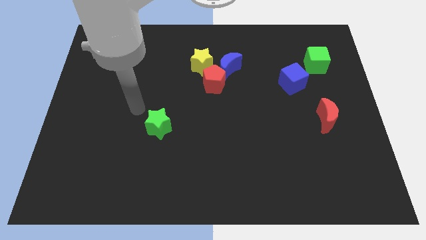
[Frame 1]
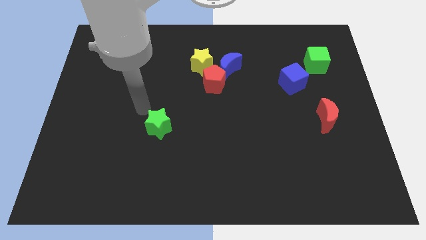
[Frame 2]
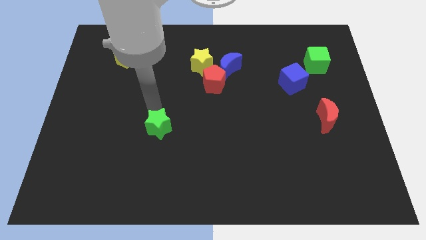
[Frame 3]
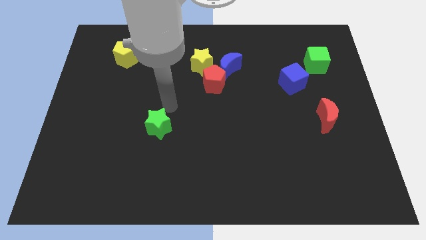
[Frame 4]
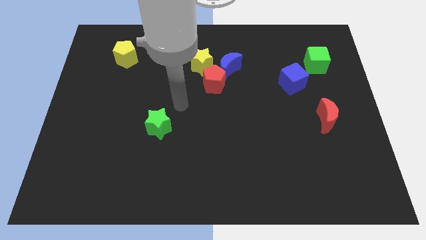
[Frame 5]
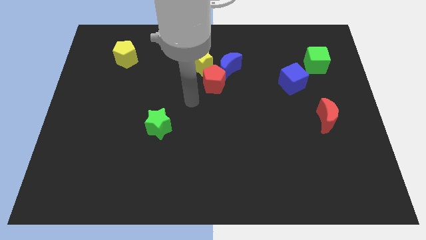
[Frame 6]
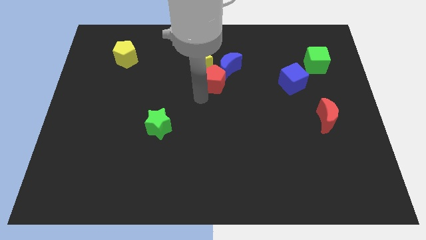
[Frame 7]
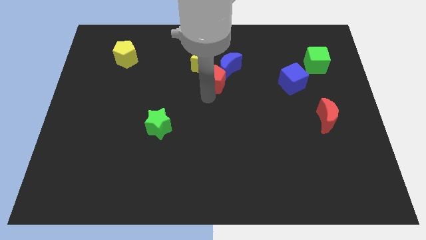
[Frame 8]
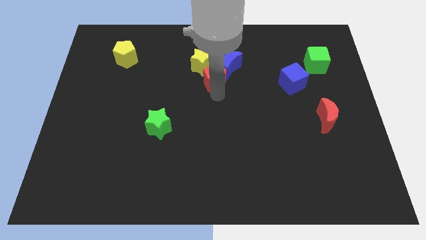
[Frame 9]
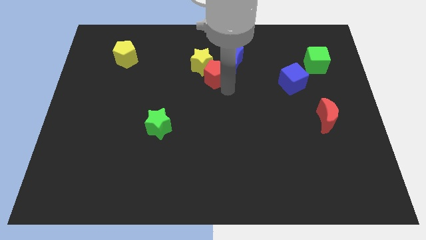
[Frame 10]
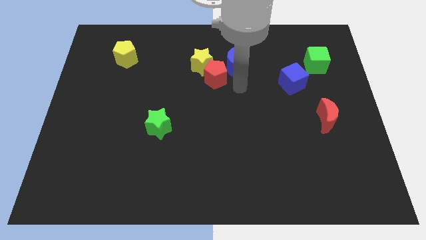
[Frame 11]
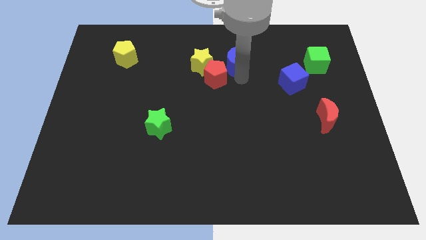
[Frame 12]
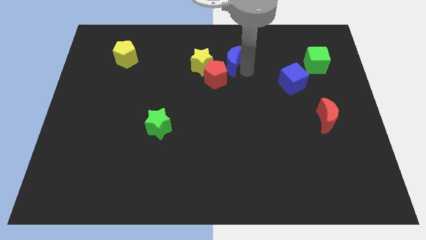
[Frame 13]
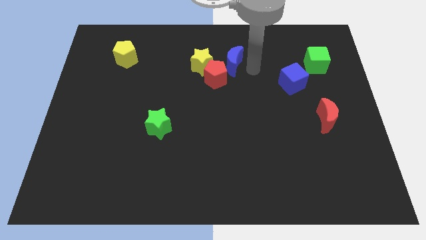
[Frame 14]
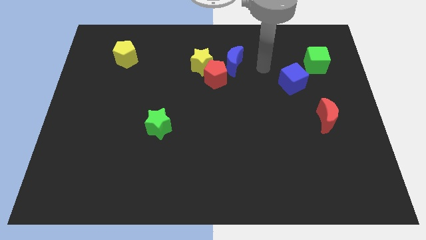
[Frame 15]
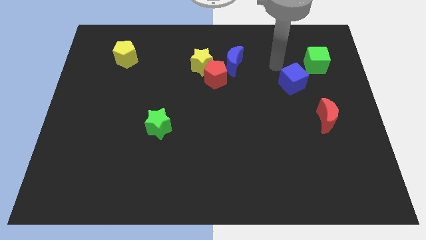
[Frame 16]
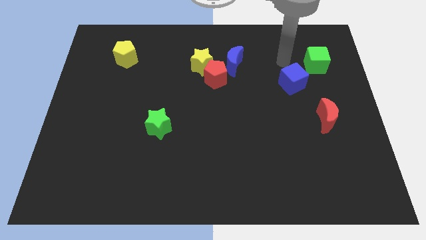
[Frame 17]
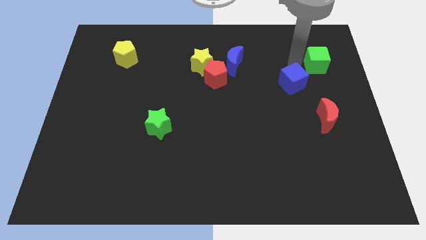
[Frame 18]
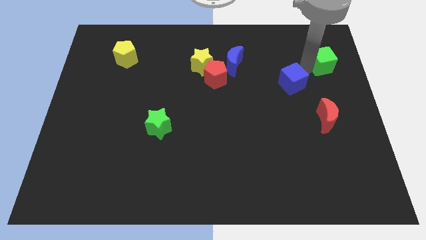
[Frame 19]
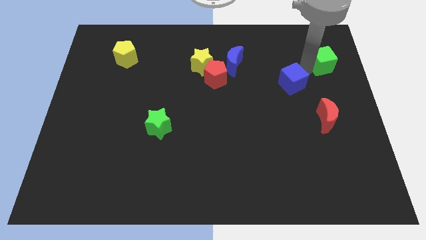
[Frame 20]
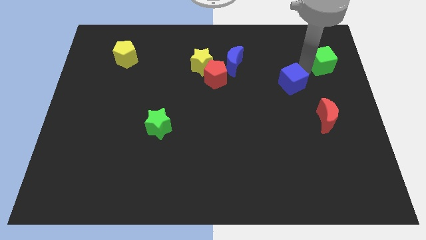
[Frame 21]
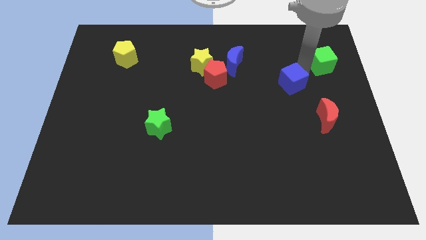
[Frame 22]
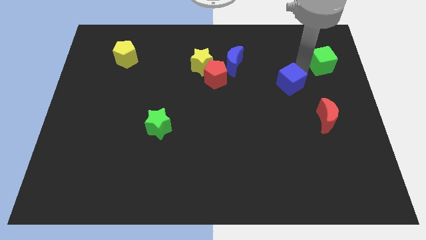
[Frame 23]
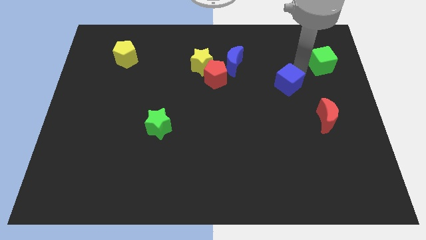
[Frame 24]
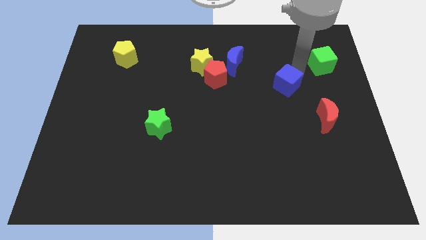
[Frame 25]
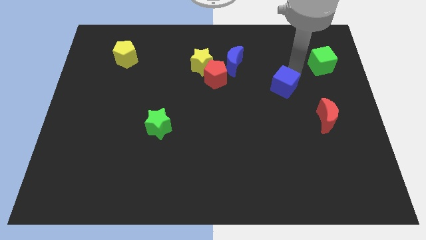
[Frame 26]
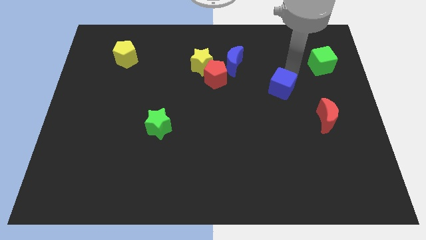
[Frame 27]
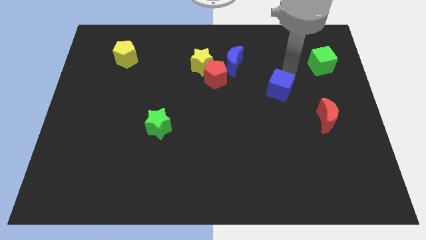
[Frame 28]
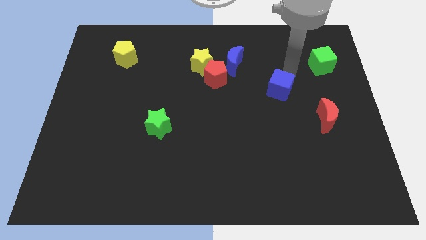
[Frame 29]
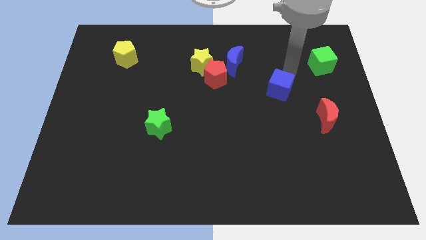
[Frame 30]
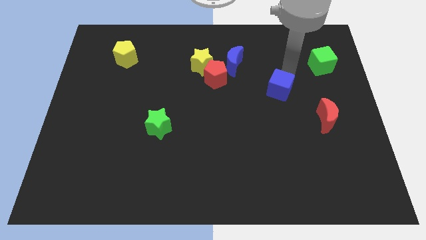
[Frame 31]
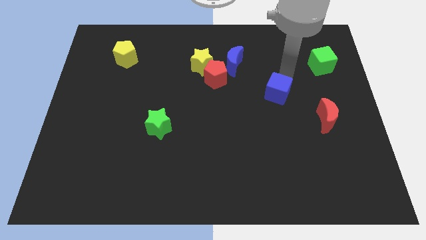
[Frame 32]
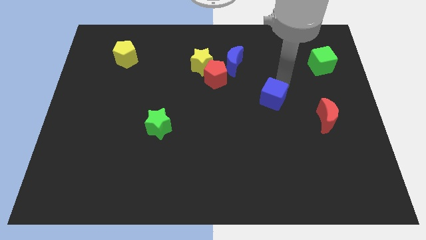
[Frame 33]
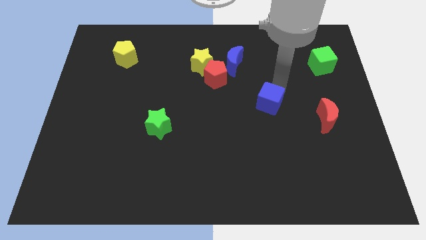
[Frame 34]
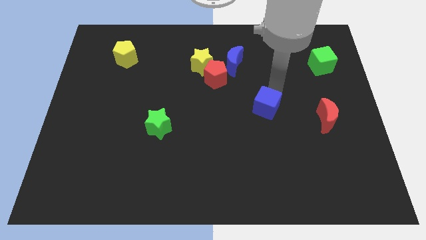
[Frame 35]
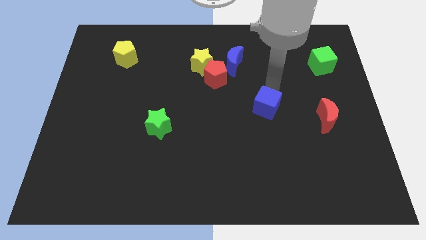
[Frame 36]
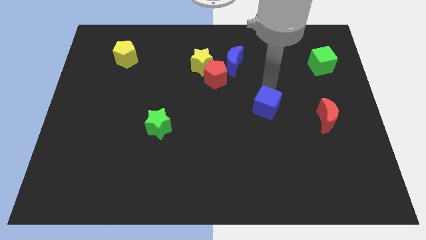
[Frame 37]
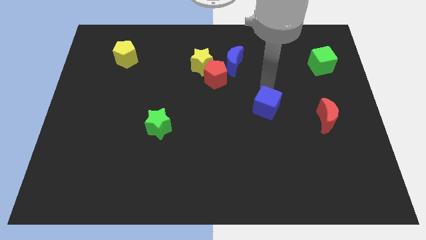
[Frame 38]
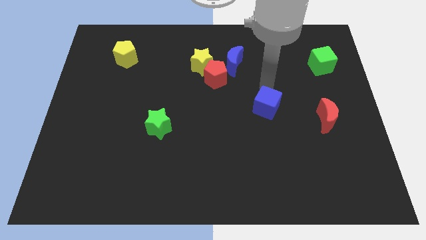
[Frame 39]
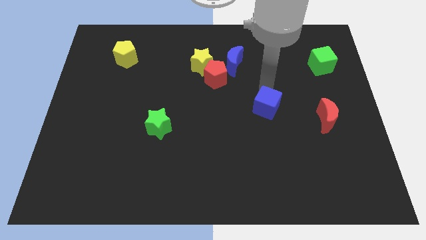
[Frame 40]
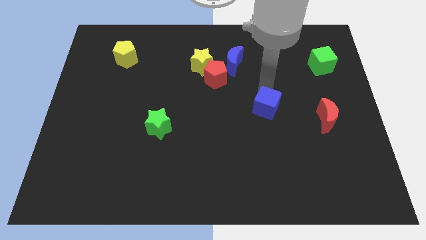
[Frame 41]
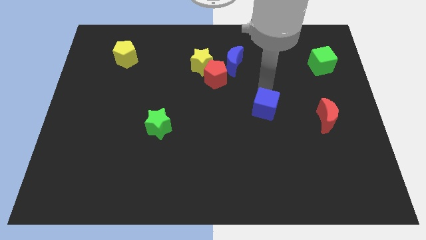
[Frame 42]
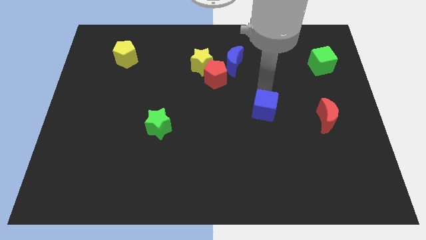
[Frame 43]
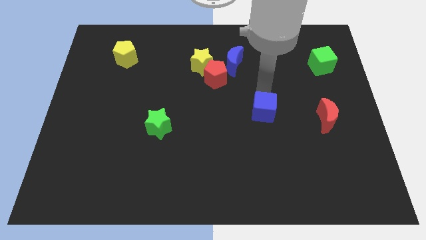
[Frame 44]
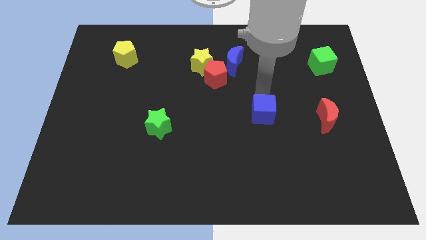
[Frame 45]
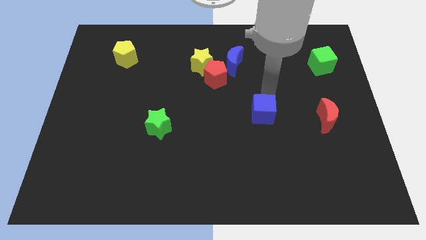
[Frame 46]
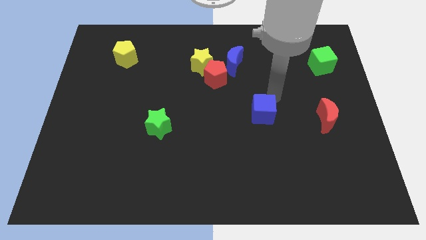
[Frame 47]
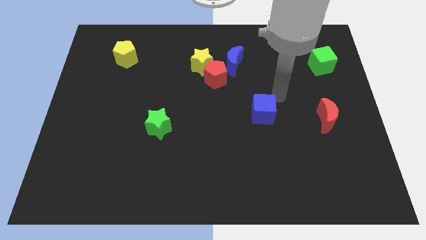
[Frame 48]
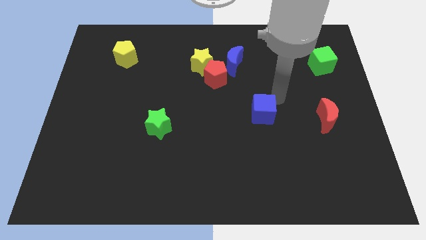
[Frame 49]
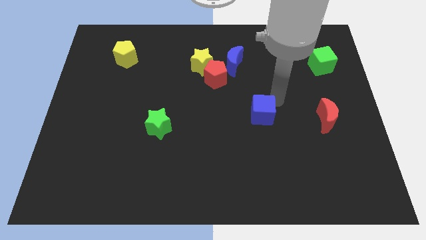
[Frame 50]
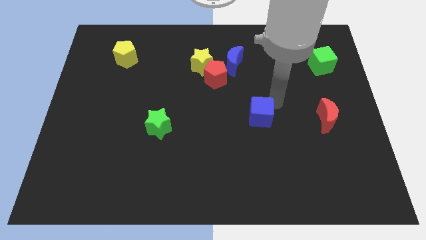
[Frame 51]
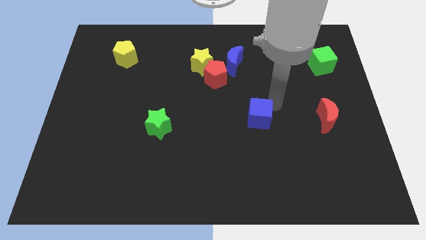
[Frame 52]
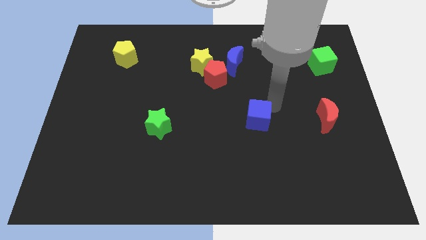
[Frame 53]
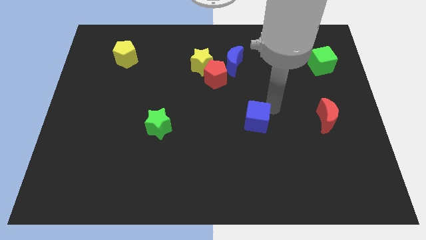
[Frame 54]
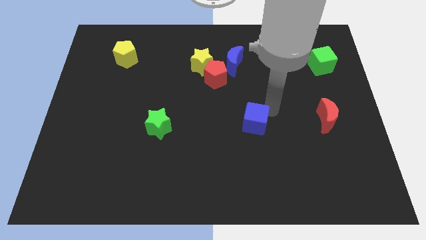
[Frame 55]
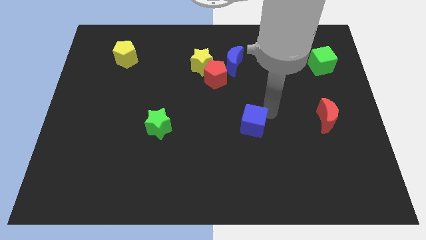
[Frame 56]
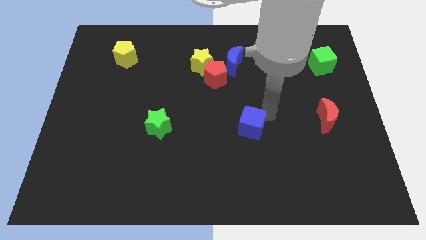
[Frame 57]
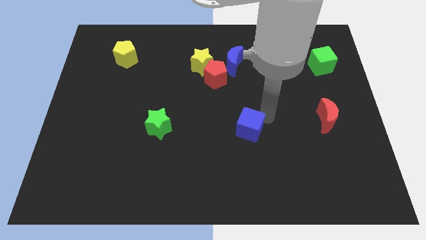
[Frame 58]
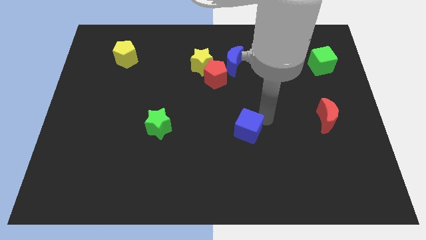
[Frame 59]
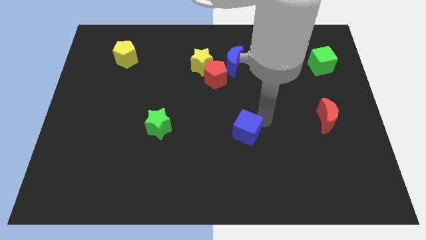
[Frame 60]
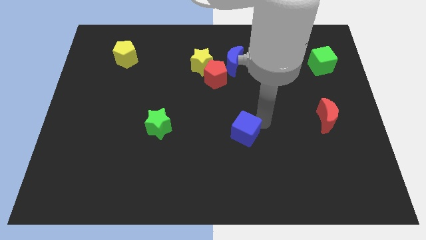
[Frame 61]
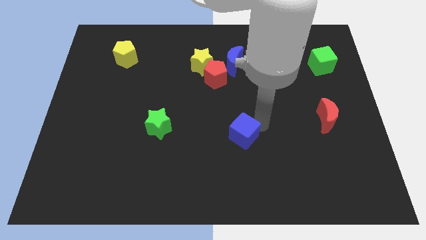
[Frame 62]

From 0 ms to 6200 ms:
push the blue cube downwards and then to the left

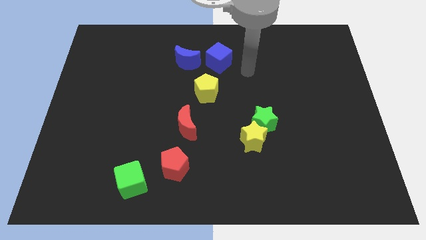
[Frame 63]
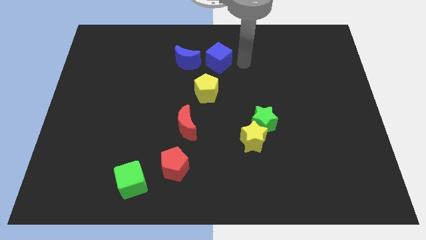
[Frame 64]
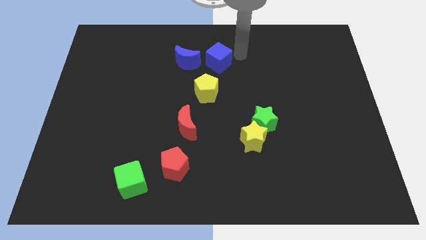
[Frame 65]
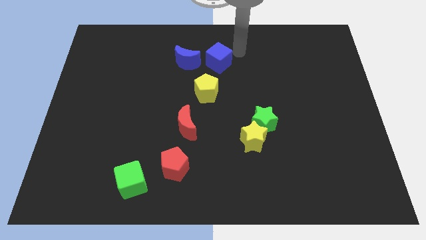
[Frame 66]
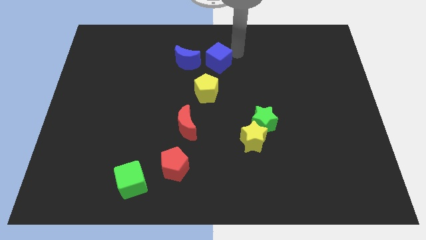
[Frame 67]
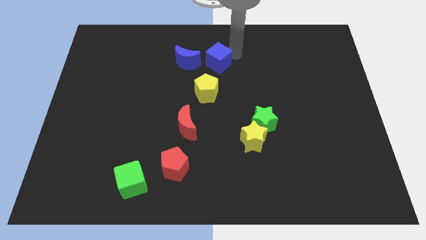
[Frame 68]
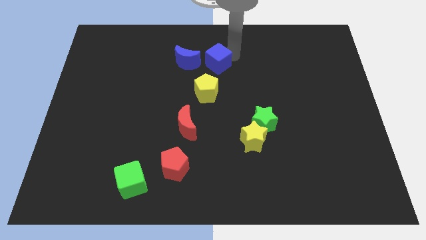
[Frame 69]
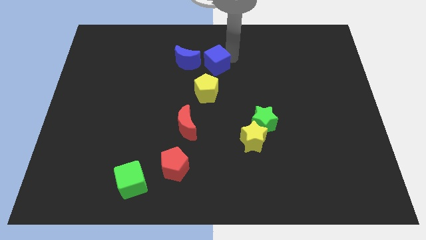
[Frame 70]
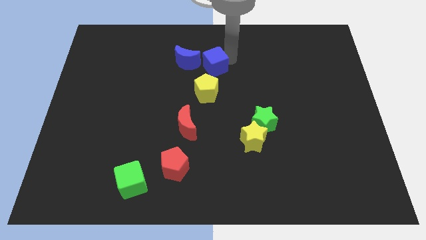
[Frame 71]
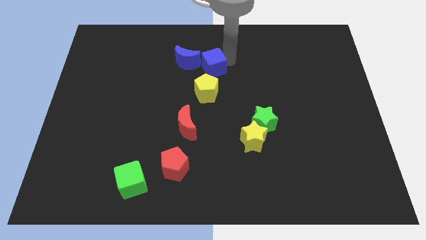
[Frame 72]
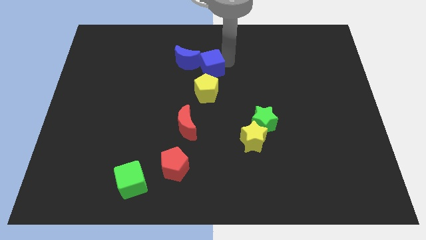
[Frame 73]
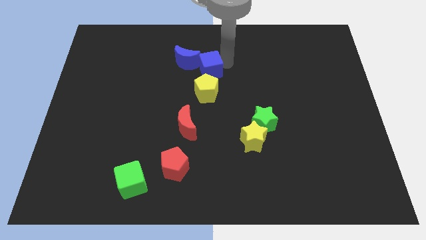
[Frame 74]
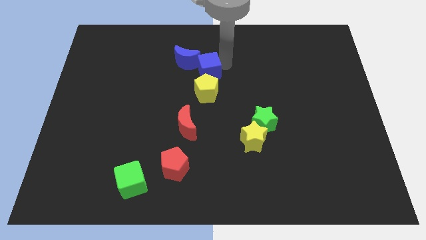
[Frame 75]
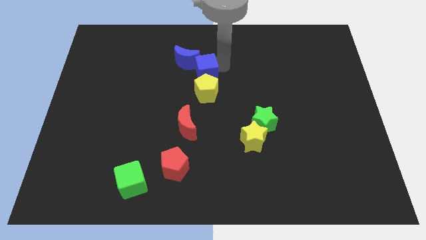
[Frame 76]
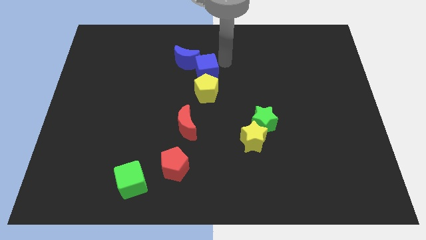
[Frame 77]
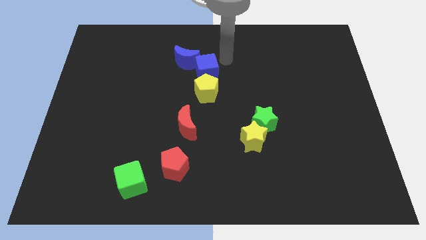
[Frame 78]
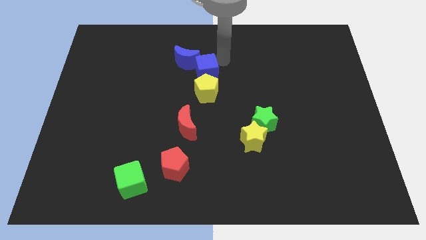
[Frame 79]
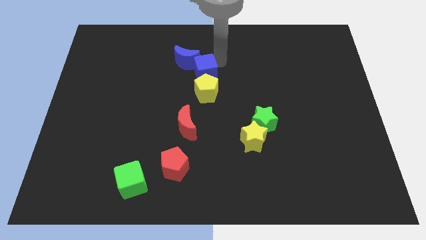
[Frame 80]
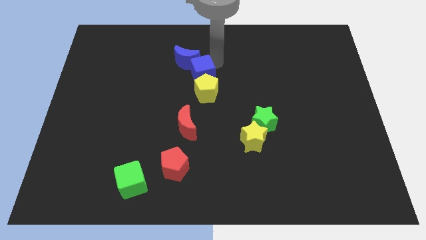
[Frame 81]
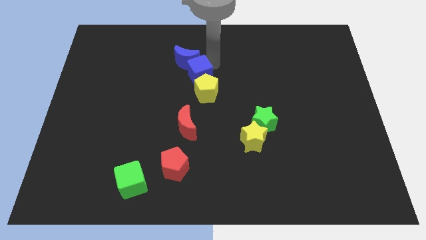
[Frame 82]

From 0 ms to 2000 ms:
slightly move the blue cube down and to the left diagonally
